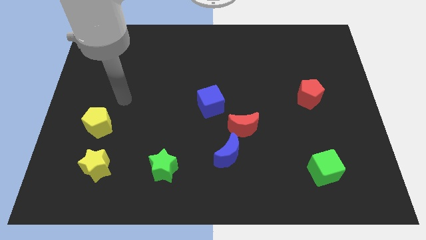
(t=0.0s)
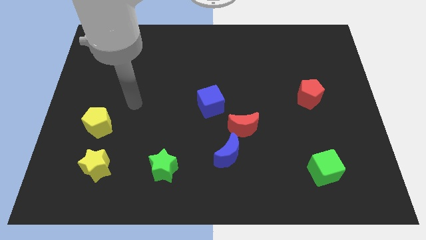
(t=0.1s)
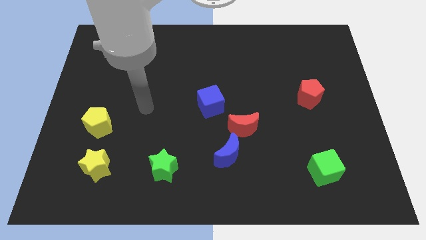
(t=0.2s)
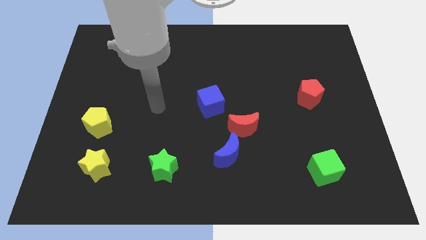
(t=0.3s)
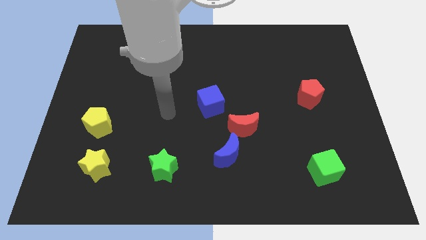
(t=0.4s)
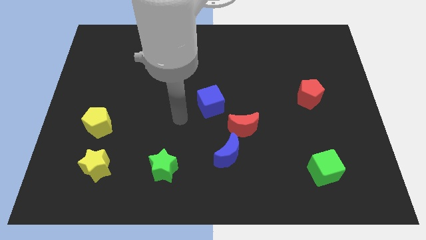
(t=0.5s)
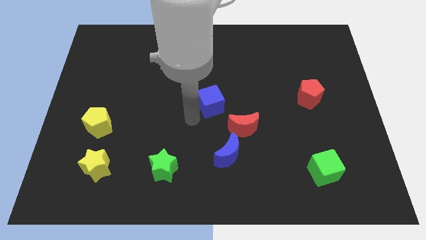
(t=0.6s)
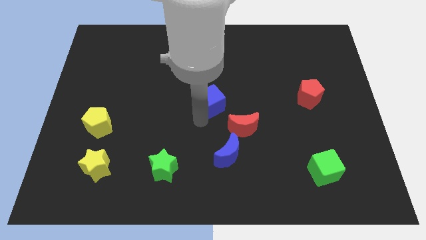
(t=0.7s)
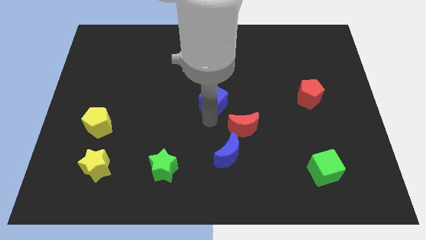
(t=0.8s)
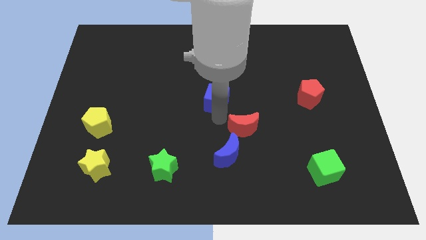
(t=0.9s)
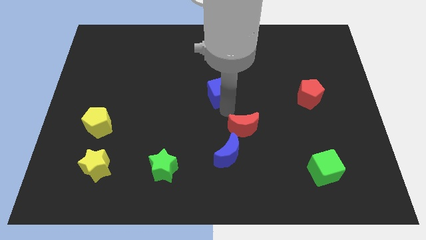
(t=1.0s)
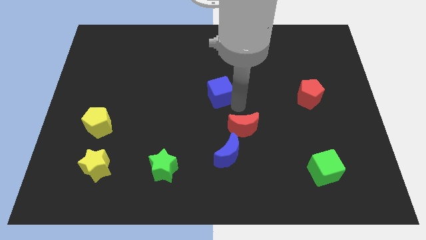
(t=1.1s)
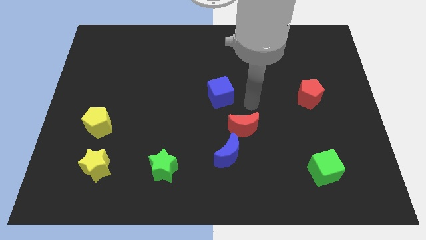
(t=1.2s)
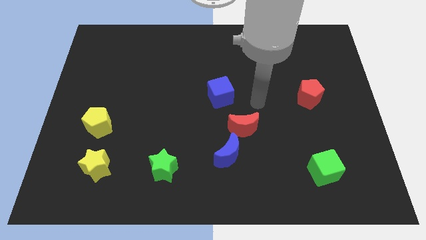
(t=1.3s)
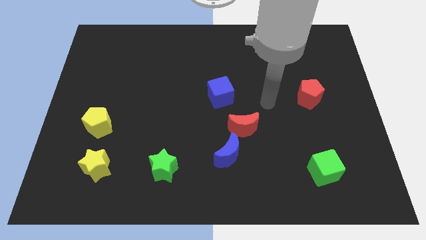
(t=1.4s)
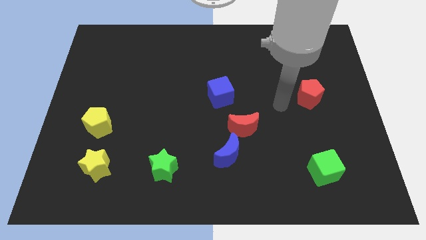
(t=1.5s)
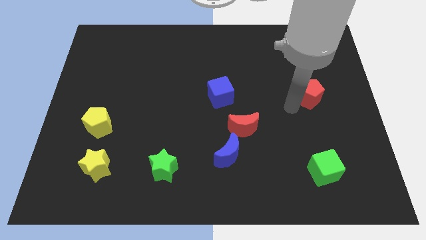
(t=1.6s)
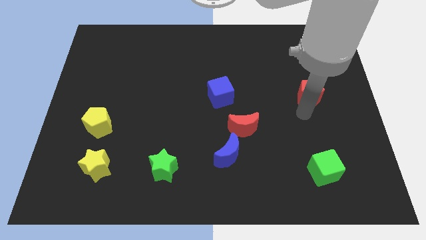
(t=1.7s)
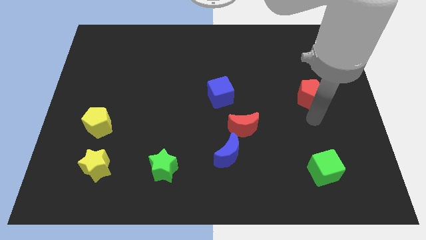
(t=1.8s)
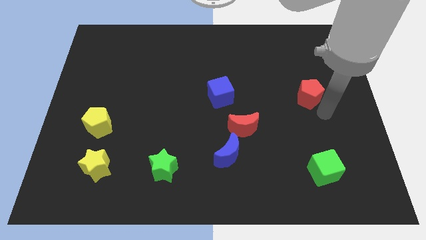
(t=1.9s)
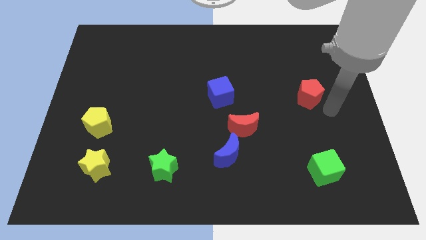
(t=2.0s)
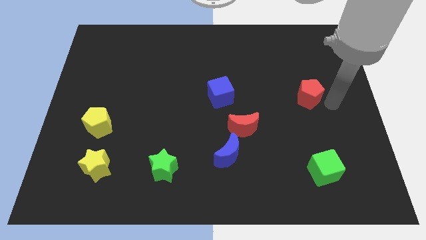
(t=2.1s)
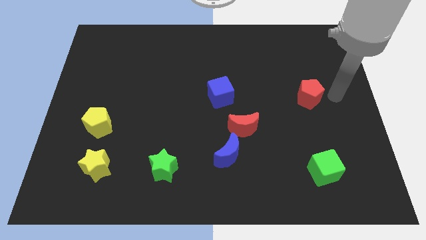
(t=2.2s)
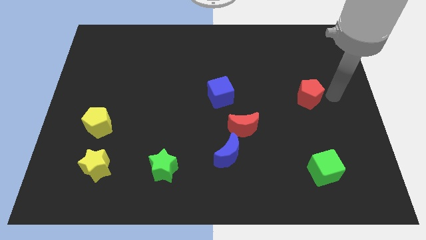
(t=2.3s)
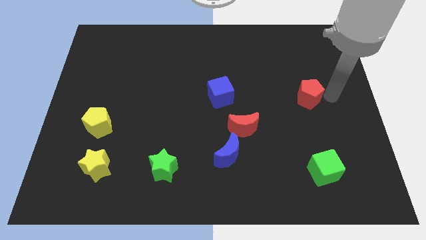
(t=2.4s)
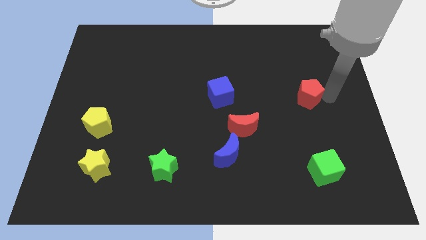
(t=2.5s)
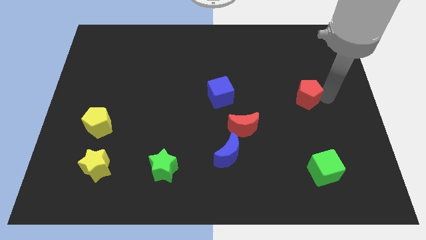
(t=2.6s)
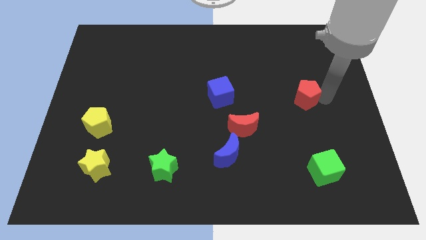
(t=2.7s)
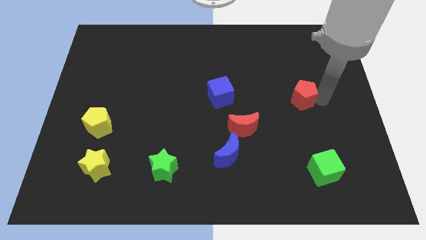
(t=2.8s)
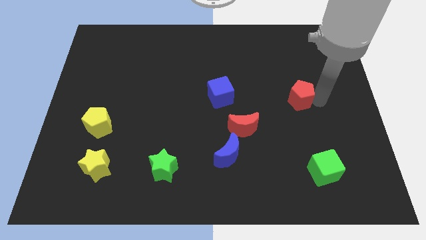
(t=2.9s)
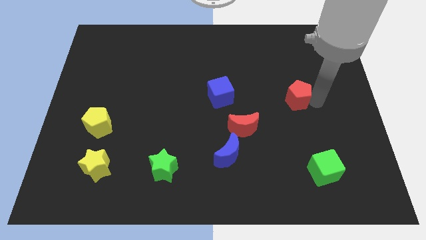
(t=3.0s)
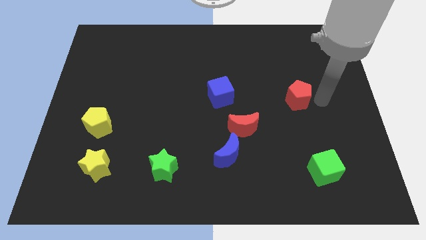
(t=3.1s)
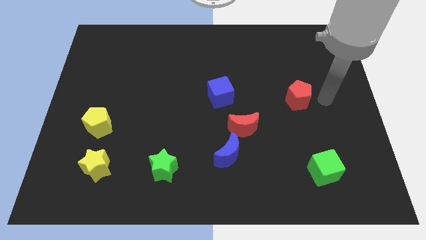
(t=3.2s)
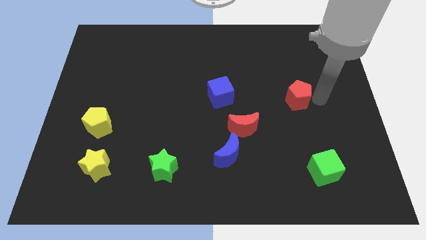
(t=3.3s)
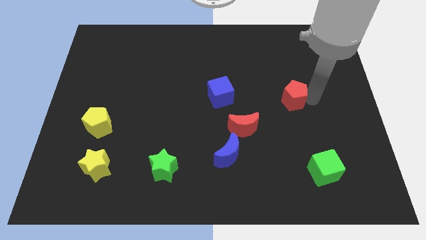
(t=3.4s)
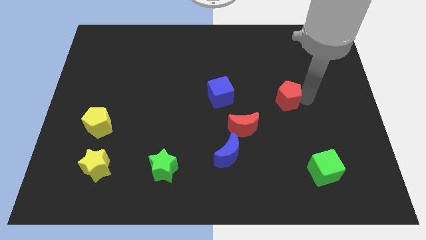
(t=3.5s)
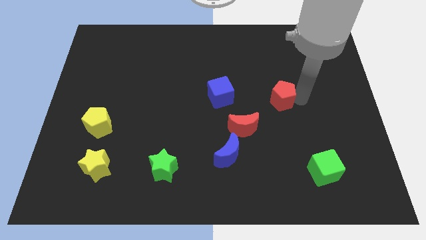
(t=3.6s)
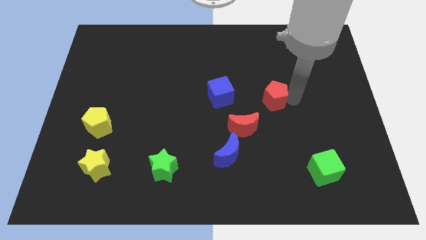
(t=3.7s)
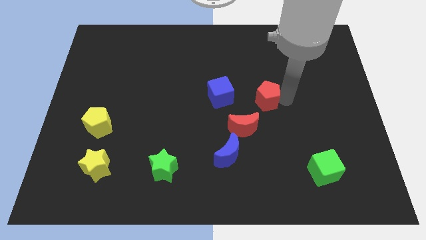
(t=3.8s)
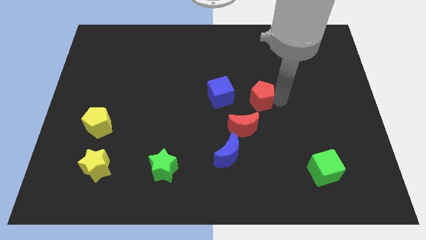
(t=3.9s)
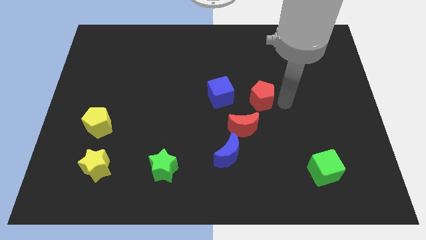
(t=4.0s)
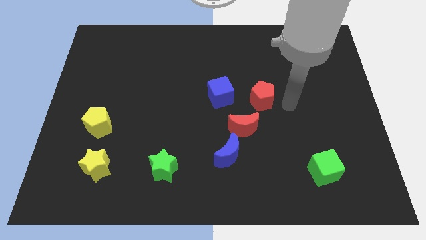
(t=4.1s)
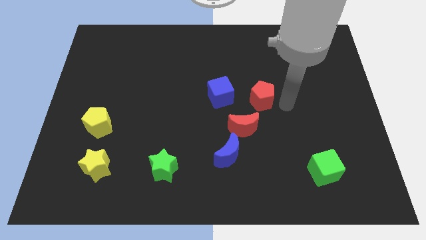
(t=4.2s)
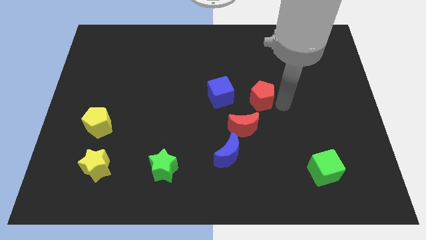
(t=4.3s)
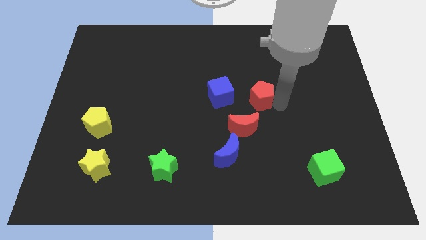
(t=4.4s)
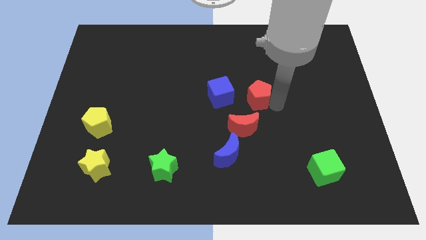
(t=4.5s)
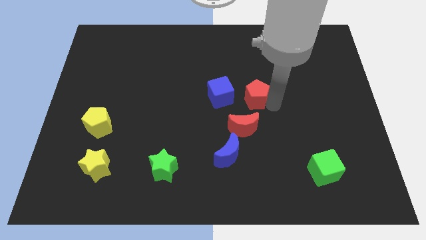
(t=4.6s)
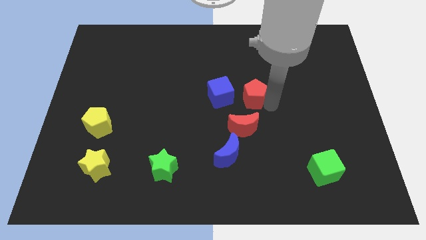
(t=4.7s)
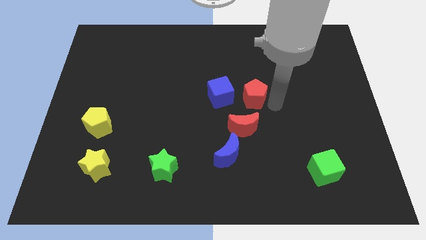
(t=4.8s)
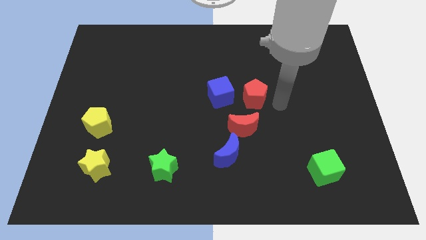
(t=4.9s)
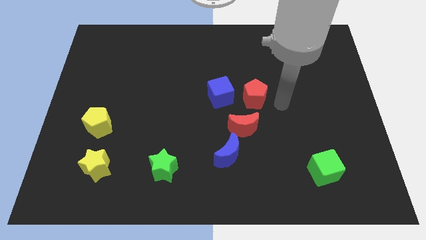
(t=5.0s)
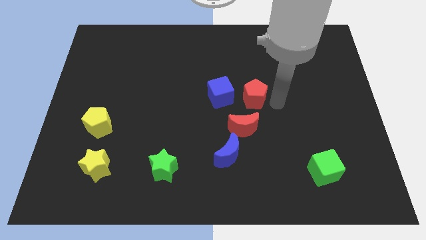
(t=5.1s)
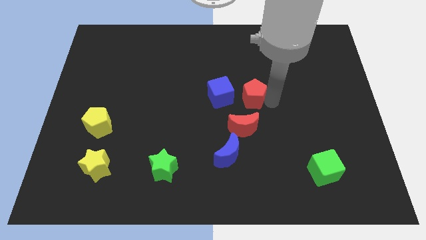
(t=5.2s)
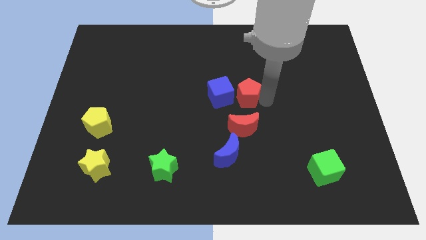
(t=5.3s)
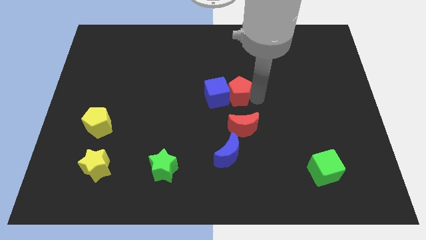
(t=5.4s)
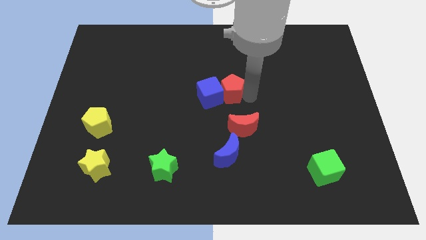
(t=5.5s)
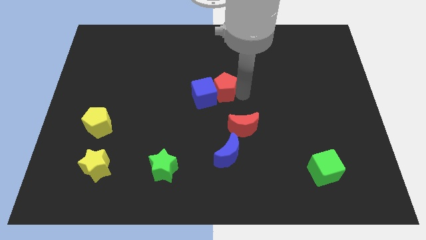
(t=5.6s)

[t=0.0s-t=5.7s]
slide the red pentagon left

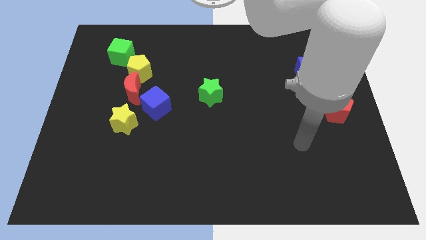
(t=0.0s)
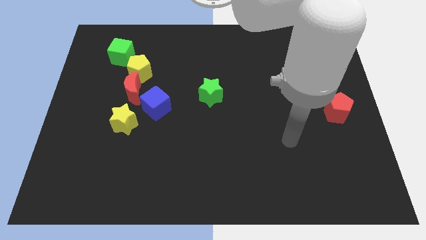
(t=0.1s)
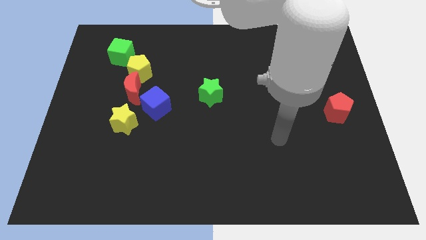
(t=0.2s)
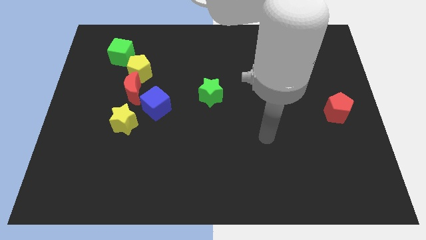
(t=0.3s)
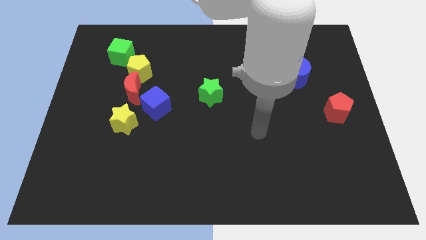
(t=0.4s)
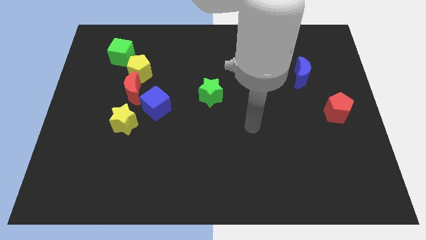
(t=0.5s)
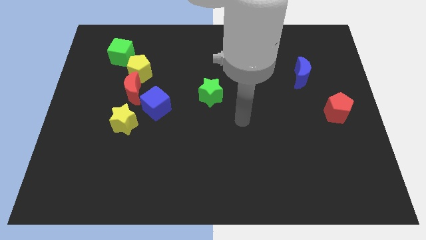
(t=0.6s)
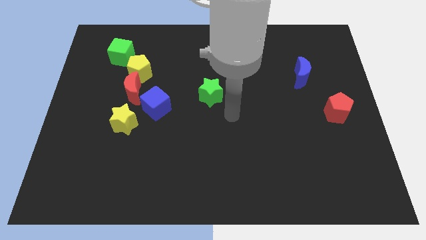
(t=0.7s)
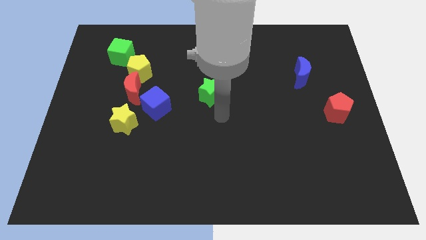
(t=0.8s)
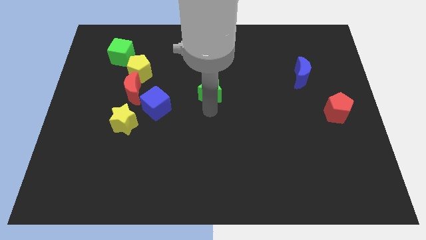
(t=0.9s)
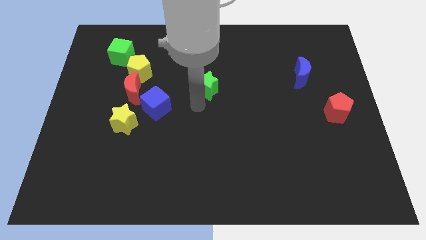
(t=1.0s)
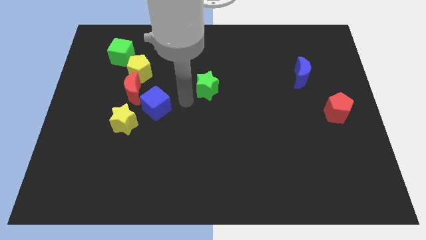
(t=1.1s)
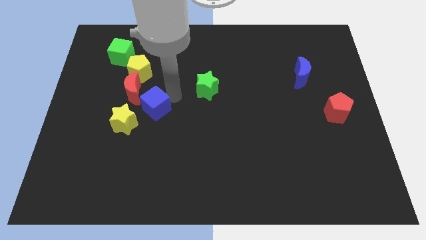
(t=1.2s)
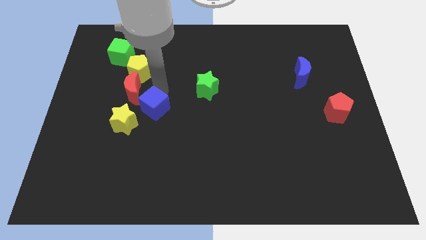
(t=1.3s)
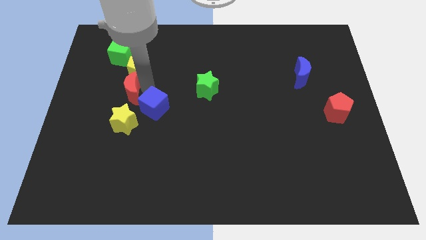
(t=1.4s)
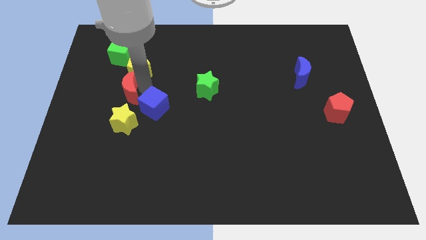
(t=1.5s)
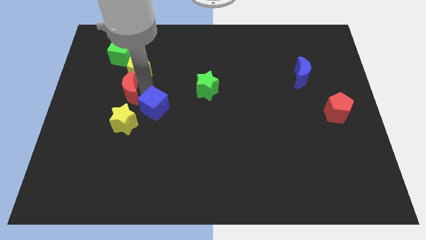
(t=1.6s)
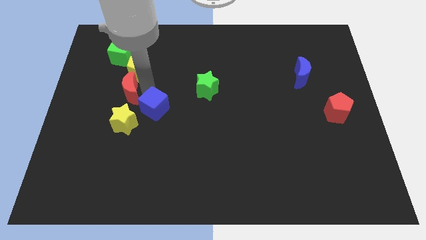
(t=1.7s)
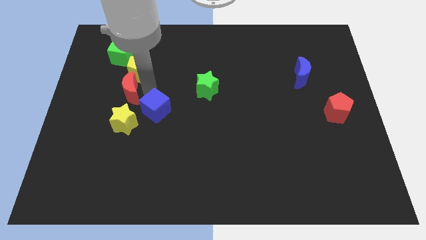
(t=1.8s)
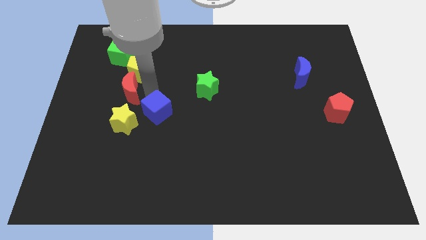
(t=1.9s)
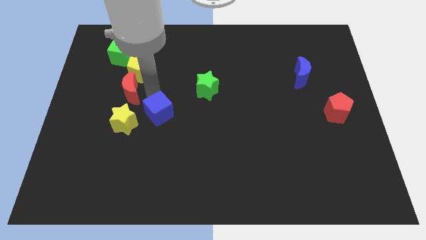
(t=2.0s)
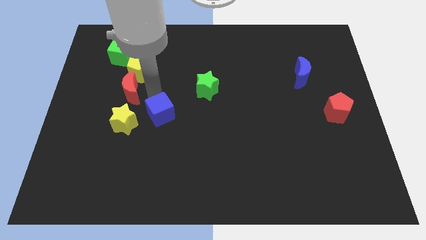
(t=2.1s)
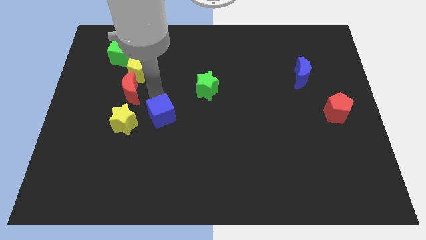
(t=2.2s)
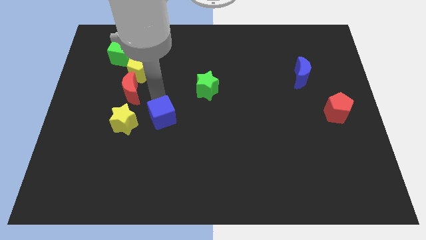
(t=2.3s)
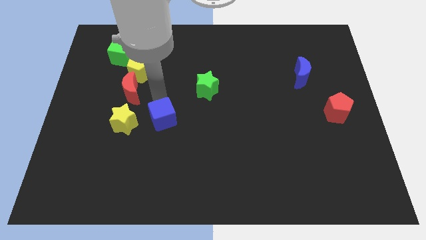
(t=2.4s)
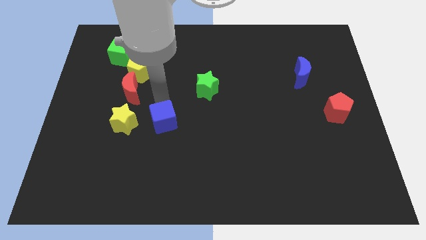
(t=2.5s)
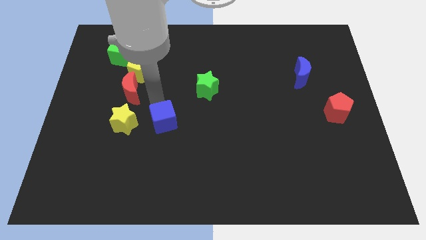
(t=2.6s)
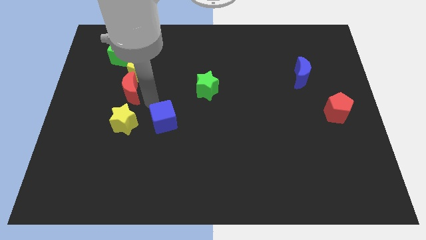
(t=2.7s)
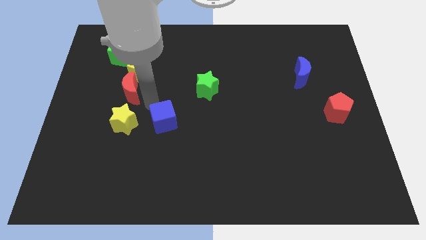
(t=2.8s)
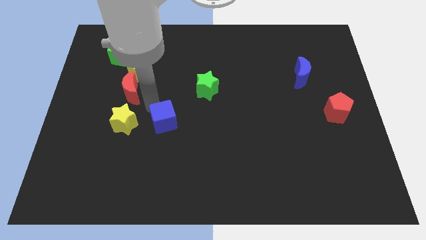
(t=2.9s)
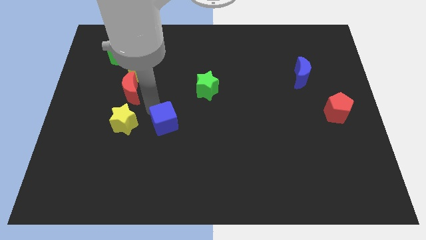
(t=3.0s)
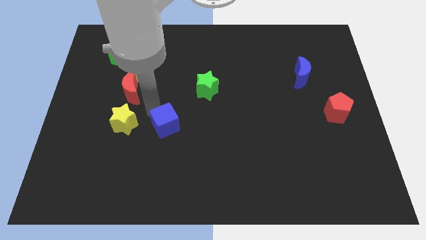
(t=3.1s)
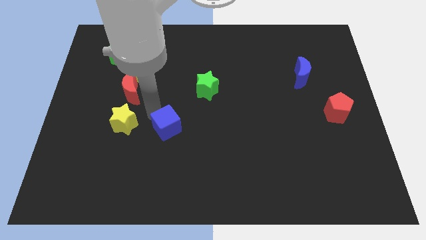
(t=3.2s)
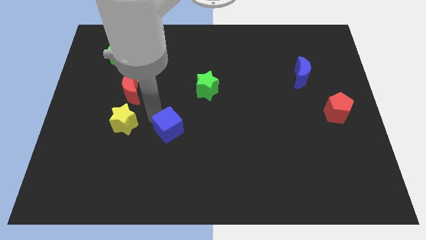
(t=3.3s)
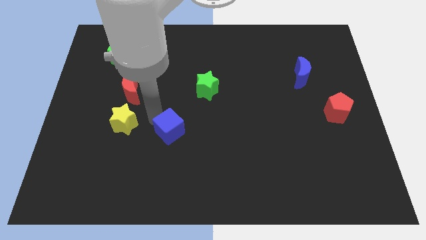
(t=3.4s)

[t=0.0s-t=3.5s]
push the blue cube down and to the right diagonally slightly
